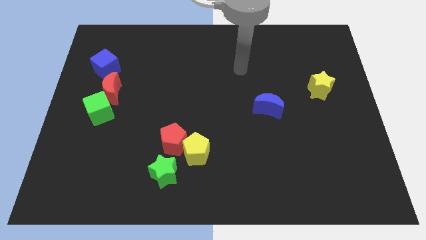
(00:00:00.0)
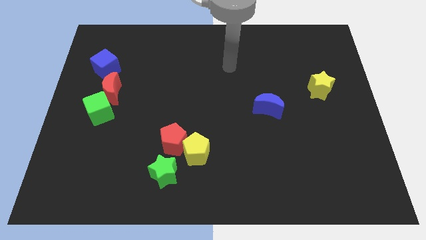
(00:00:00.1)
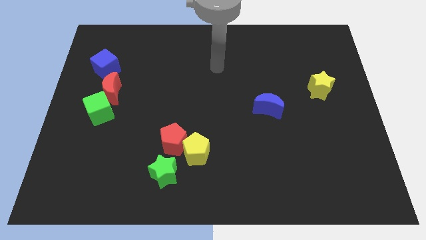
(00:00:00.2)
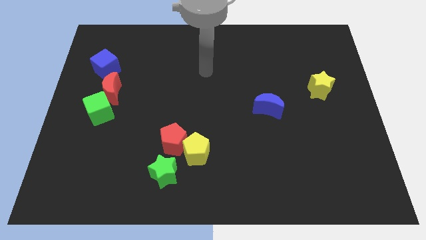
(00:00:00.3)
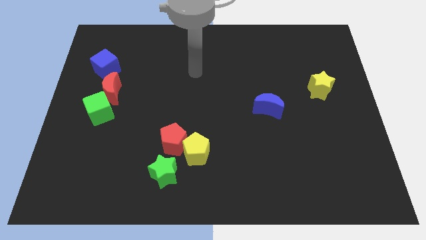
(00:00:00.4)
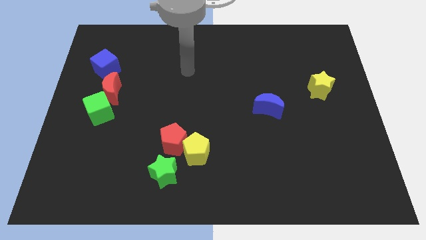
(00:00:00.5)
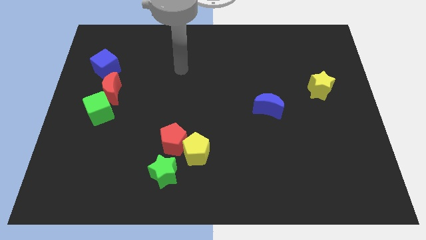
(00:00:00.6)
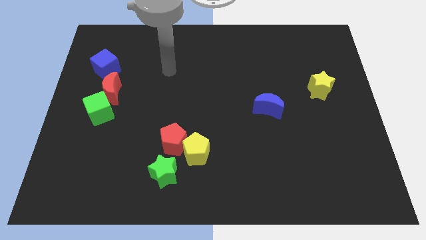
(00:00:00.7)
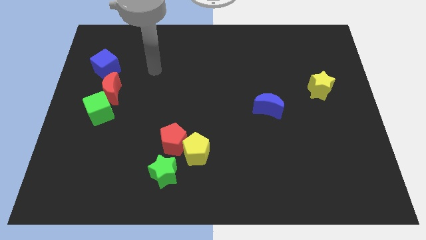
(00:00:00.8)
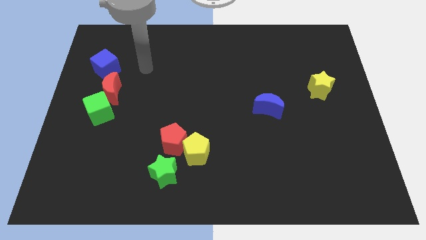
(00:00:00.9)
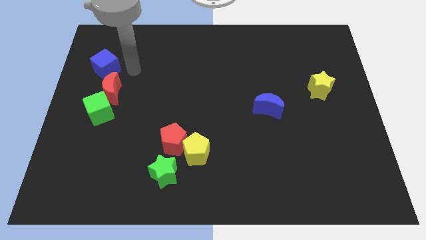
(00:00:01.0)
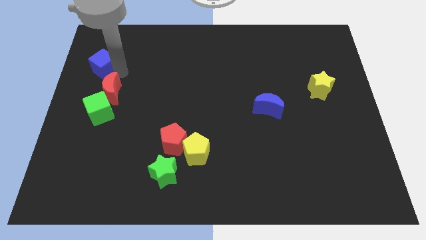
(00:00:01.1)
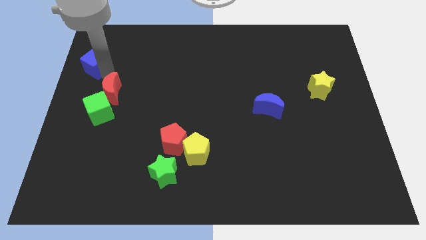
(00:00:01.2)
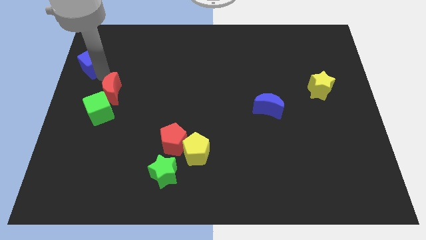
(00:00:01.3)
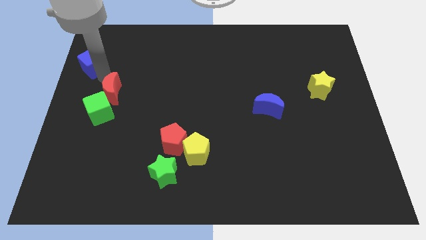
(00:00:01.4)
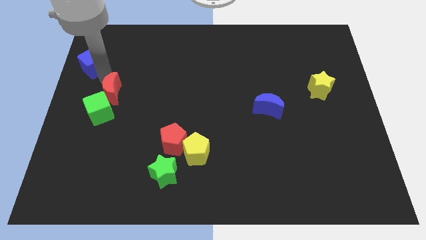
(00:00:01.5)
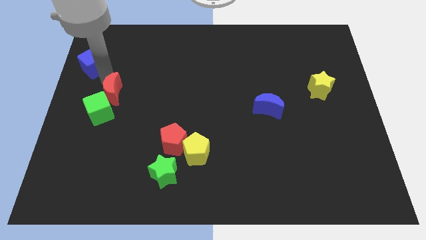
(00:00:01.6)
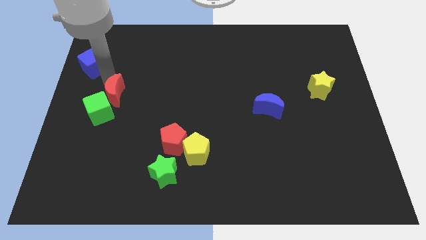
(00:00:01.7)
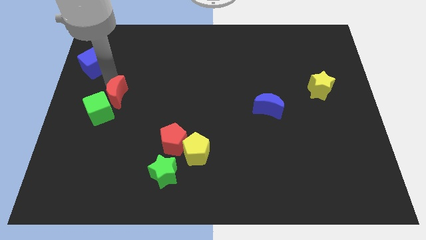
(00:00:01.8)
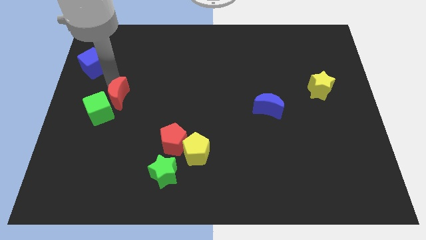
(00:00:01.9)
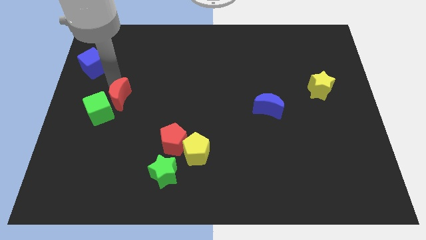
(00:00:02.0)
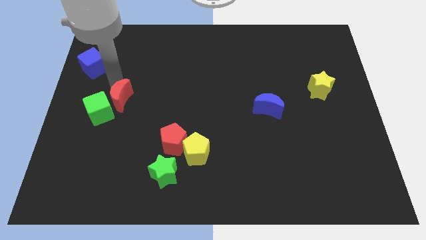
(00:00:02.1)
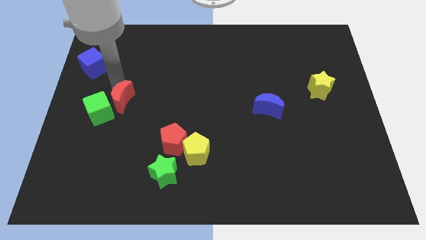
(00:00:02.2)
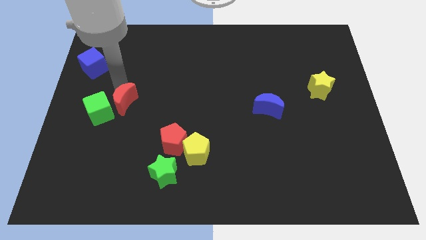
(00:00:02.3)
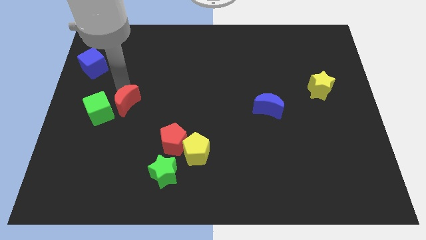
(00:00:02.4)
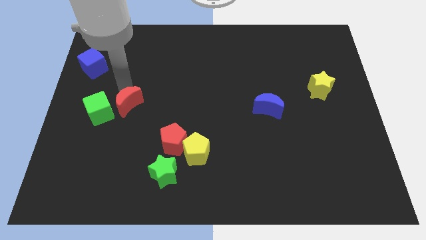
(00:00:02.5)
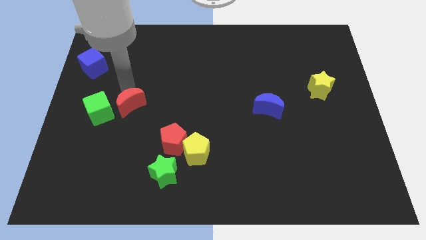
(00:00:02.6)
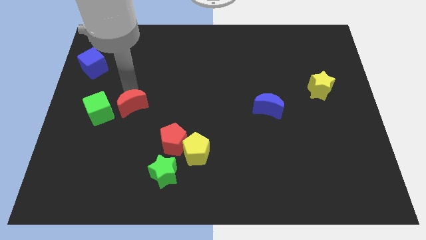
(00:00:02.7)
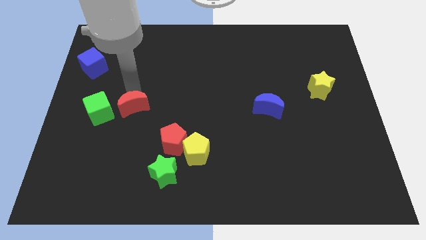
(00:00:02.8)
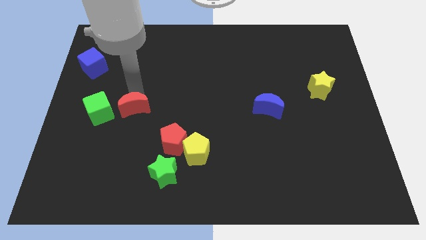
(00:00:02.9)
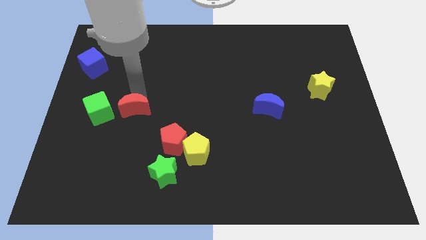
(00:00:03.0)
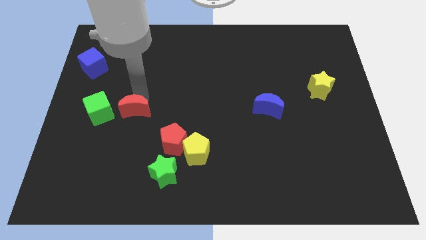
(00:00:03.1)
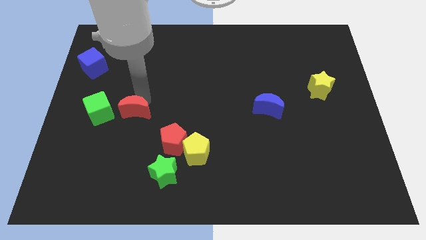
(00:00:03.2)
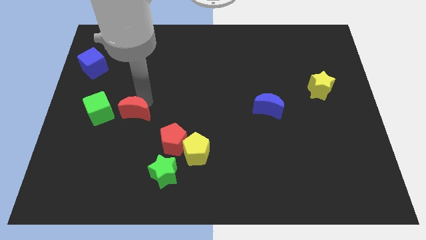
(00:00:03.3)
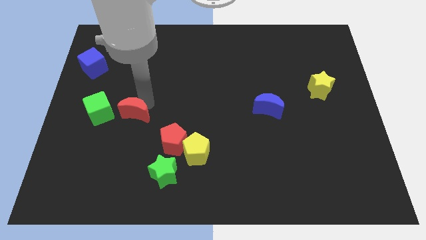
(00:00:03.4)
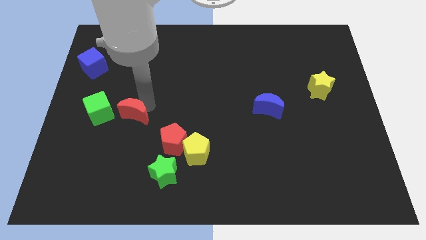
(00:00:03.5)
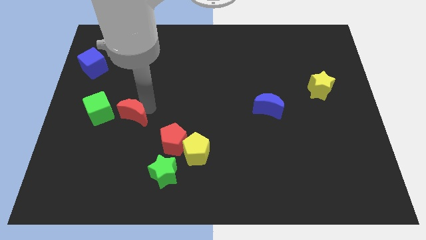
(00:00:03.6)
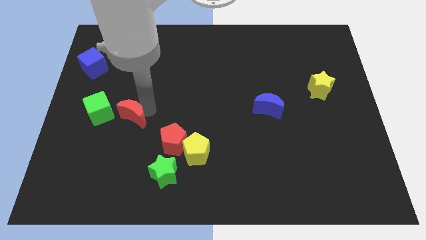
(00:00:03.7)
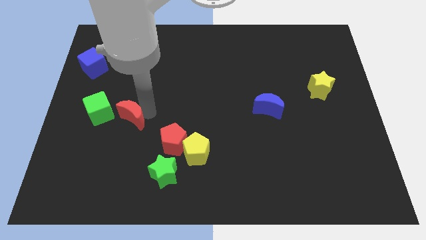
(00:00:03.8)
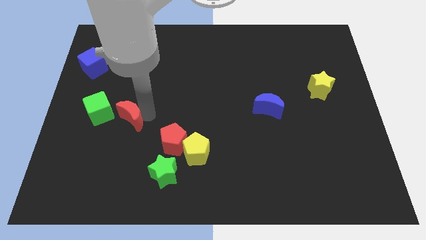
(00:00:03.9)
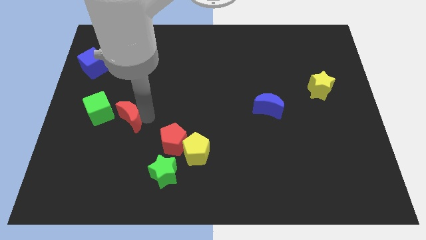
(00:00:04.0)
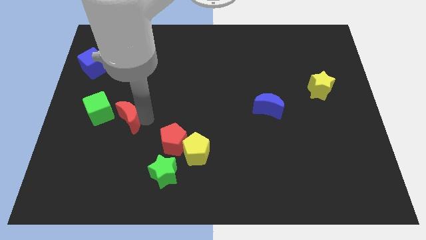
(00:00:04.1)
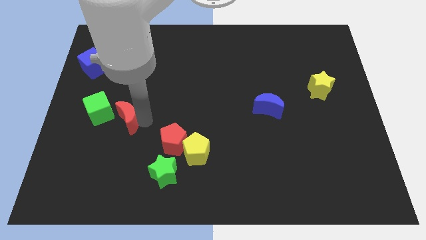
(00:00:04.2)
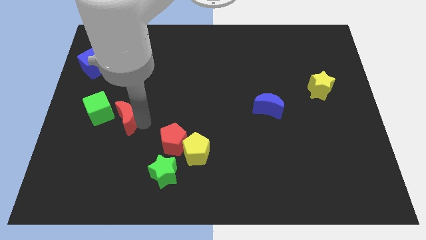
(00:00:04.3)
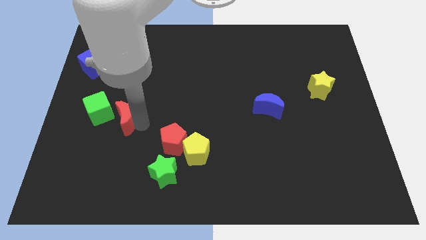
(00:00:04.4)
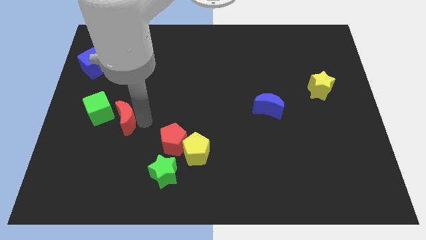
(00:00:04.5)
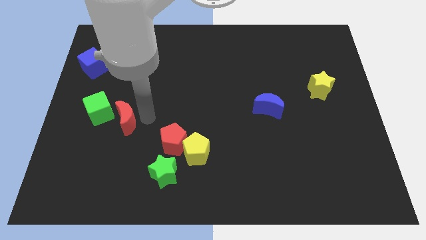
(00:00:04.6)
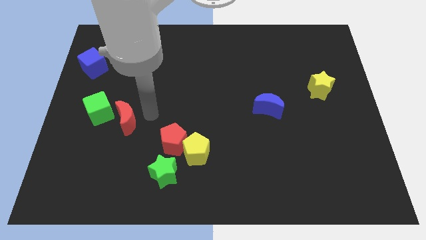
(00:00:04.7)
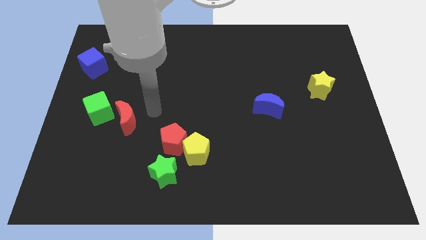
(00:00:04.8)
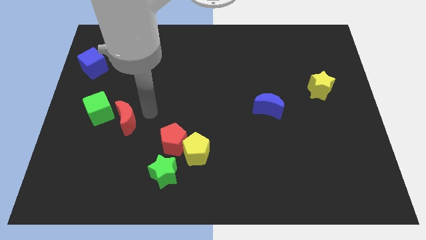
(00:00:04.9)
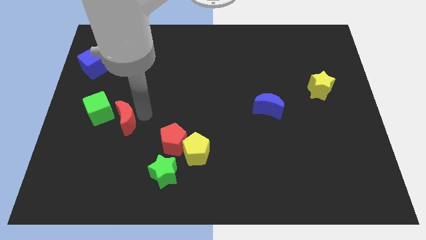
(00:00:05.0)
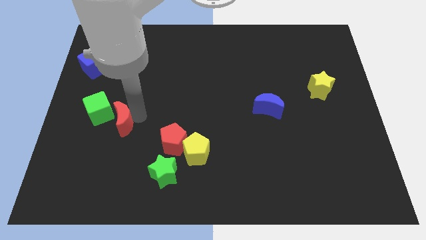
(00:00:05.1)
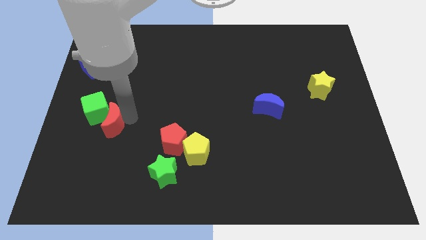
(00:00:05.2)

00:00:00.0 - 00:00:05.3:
put the red moon to the bottom of the green cube

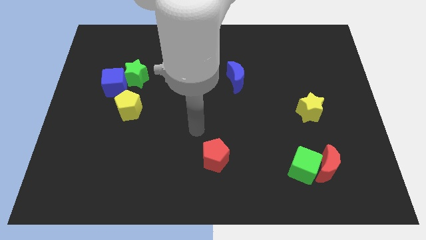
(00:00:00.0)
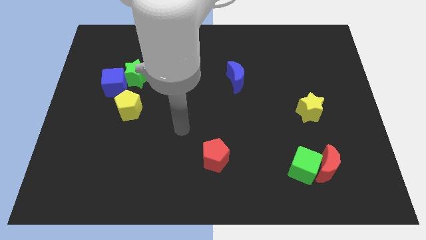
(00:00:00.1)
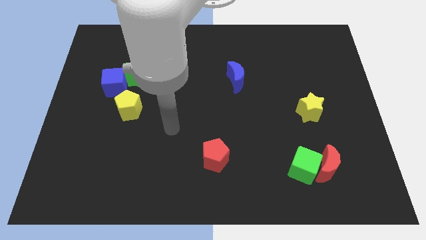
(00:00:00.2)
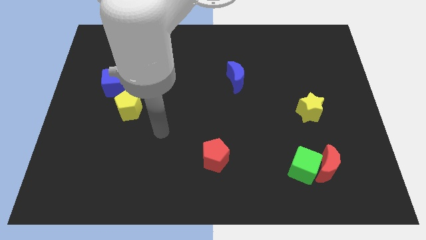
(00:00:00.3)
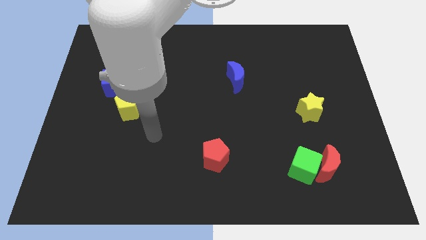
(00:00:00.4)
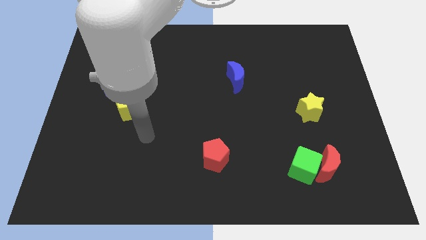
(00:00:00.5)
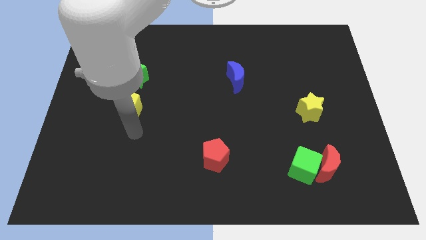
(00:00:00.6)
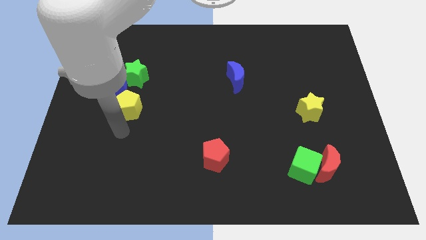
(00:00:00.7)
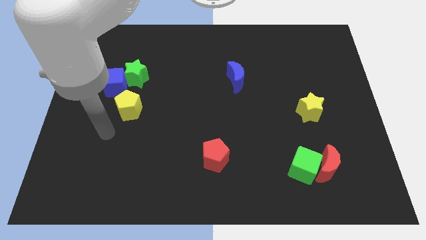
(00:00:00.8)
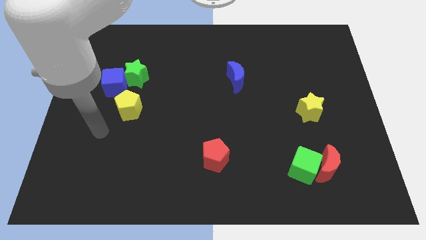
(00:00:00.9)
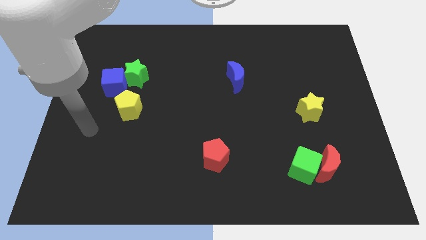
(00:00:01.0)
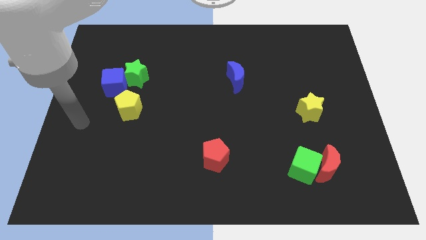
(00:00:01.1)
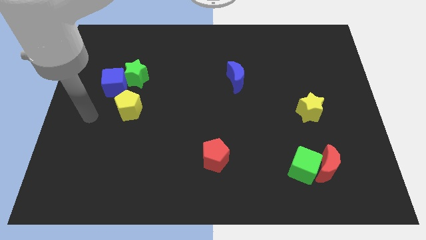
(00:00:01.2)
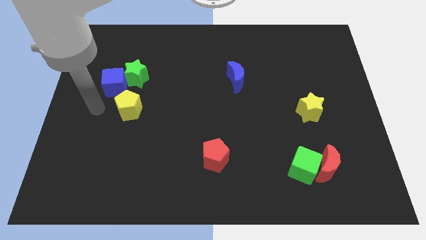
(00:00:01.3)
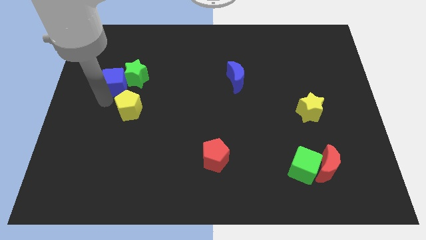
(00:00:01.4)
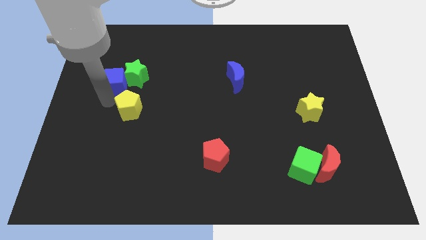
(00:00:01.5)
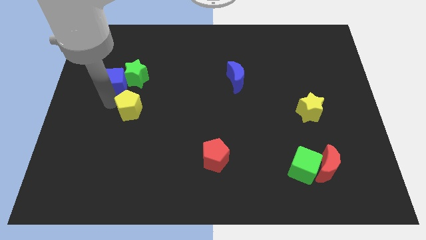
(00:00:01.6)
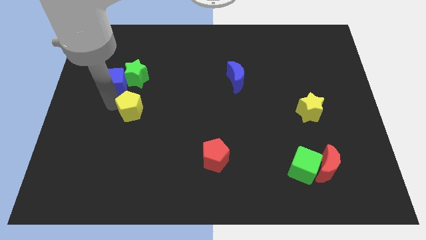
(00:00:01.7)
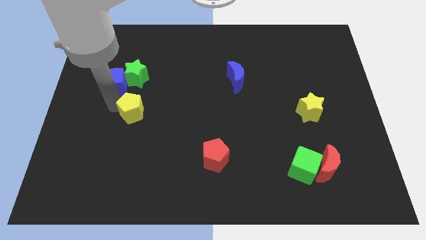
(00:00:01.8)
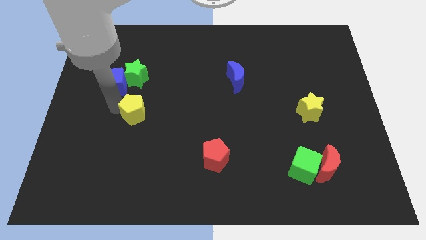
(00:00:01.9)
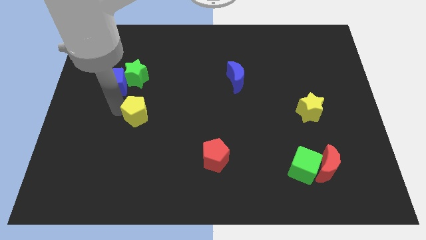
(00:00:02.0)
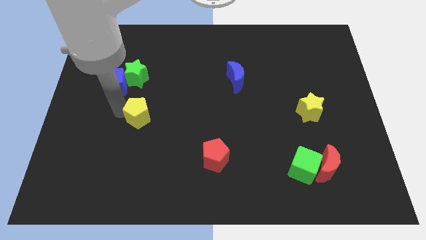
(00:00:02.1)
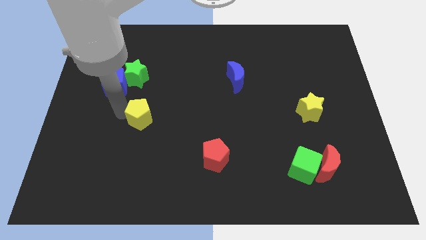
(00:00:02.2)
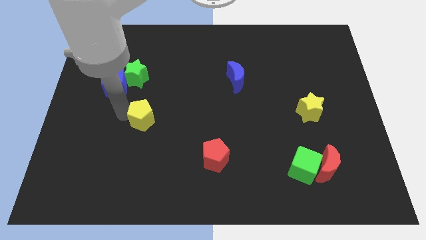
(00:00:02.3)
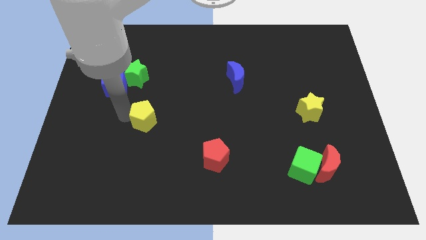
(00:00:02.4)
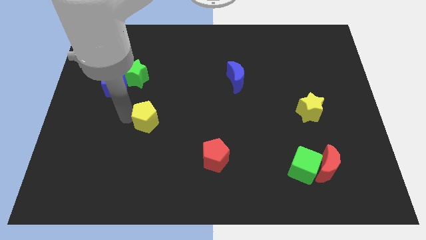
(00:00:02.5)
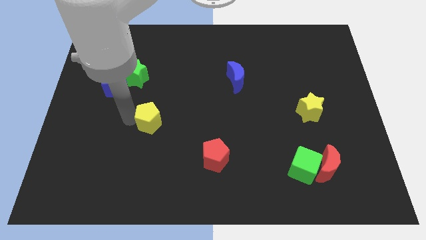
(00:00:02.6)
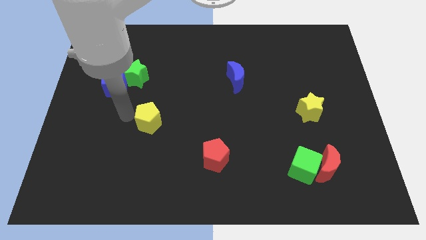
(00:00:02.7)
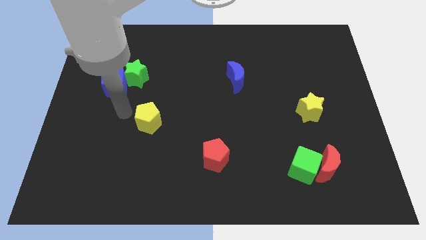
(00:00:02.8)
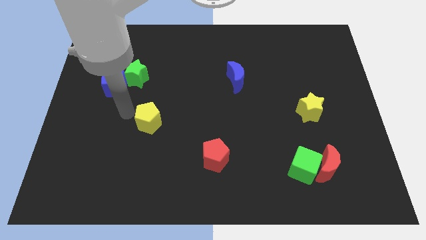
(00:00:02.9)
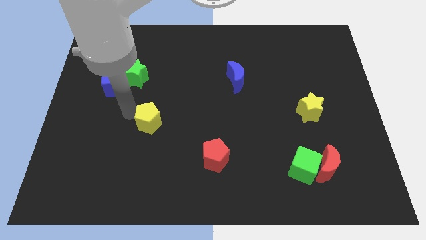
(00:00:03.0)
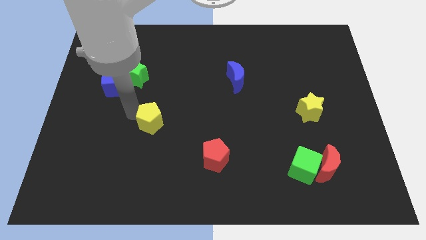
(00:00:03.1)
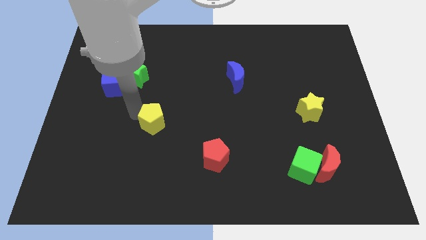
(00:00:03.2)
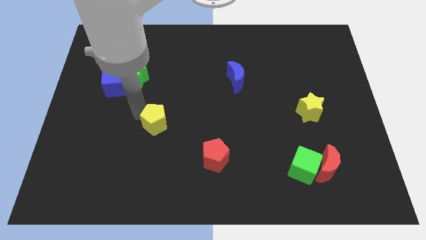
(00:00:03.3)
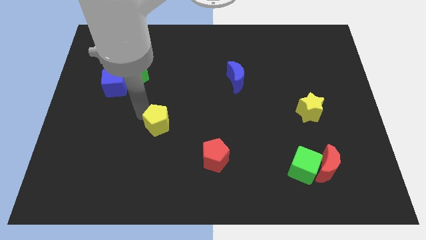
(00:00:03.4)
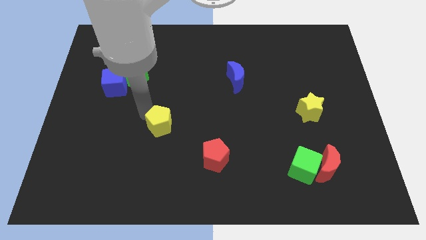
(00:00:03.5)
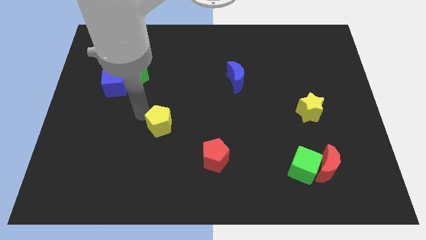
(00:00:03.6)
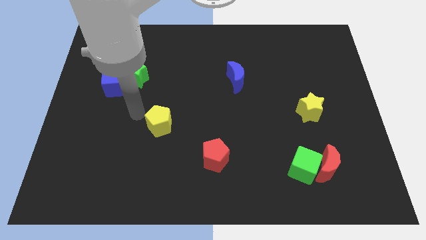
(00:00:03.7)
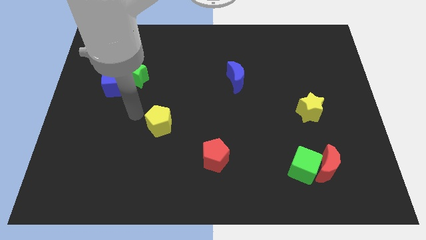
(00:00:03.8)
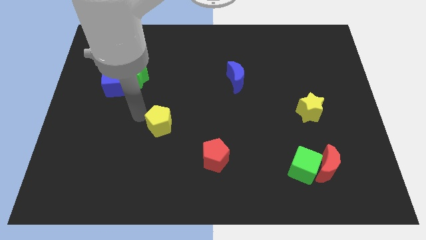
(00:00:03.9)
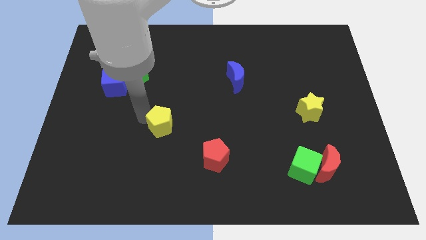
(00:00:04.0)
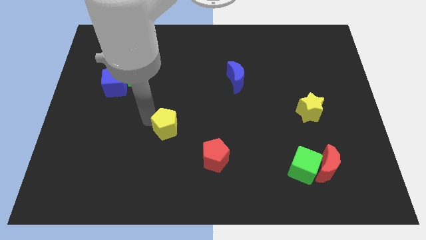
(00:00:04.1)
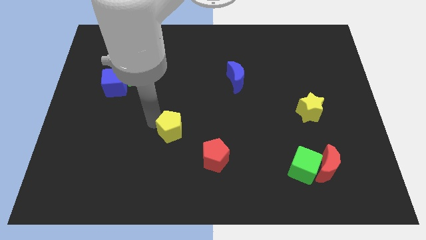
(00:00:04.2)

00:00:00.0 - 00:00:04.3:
move the yellow pentagon diagonally up and to the left of the red pentagon
